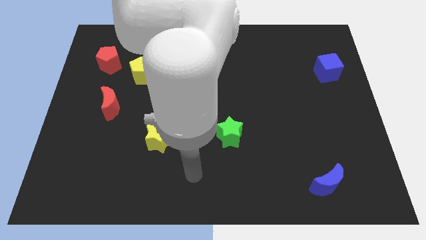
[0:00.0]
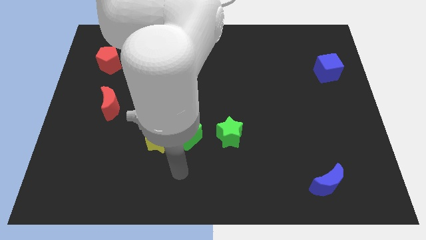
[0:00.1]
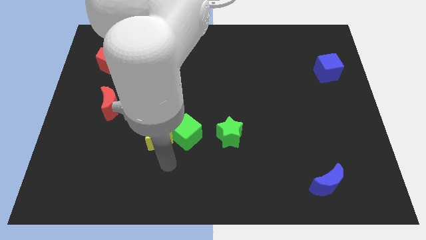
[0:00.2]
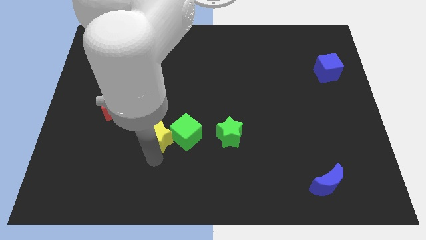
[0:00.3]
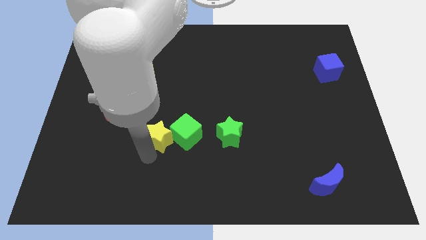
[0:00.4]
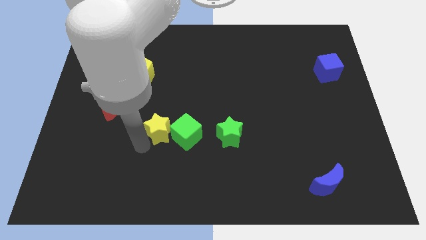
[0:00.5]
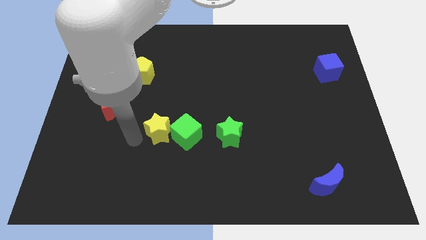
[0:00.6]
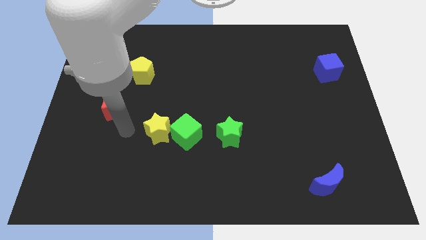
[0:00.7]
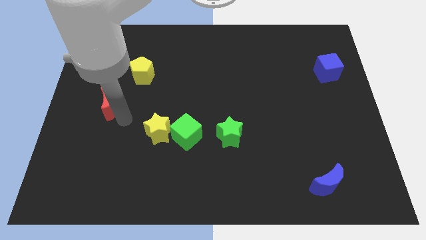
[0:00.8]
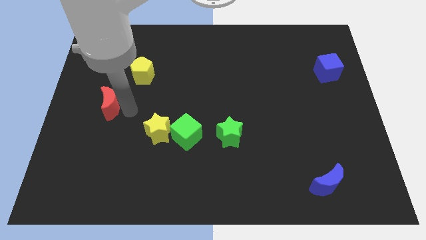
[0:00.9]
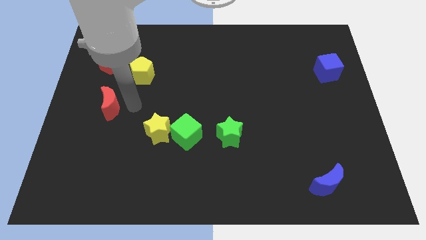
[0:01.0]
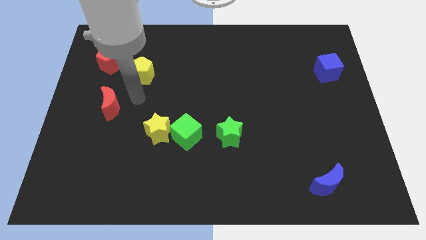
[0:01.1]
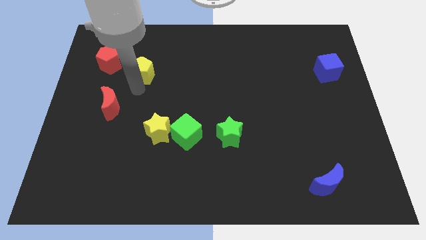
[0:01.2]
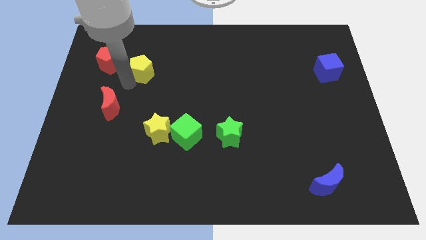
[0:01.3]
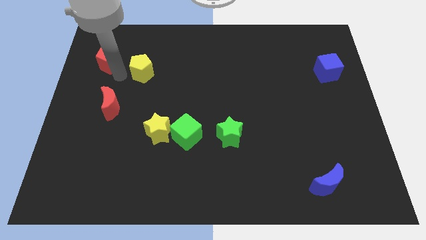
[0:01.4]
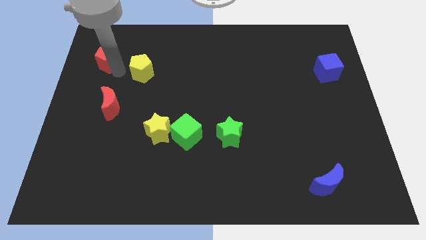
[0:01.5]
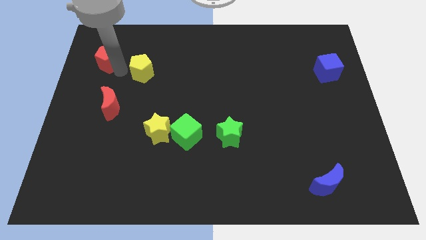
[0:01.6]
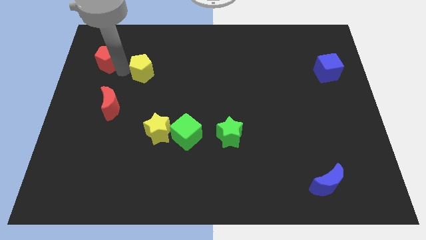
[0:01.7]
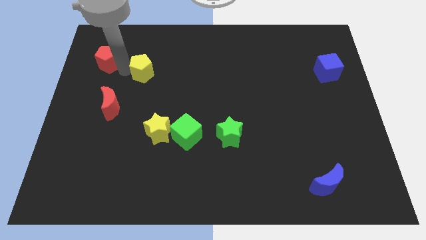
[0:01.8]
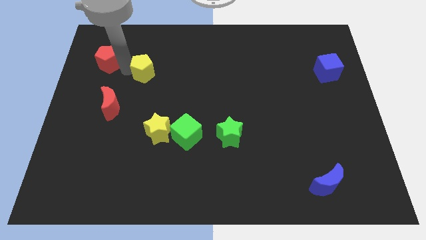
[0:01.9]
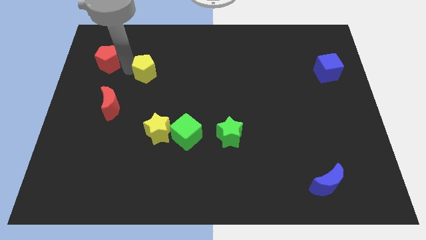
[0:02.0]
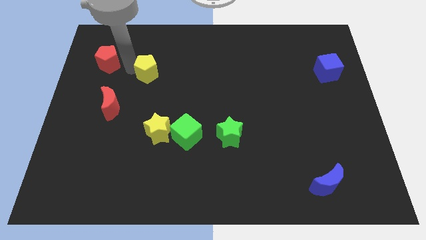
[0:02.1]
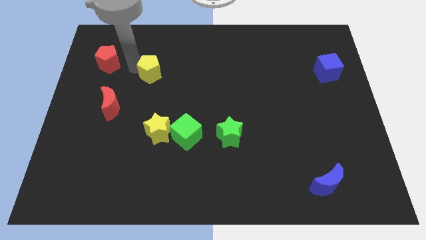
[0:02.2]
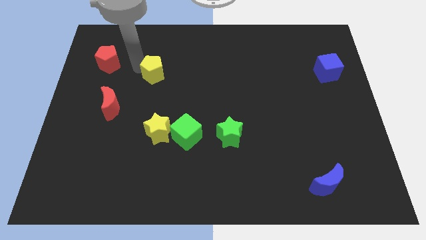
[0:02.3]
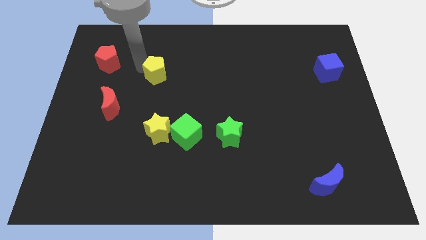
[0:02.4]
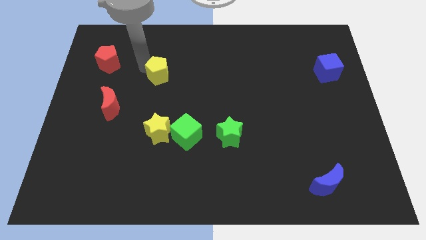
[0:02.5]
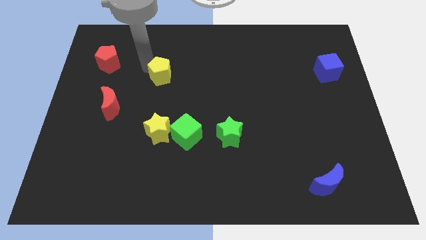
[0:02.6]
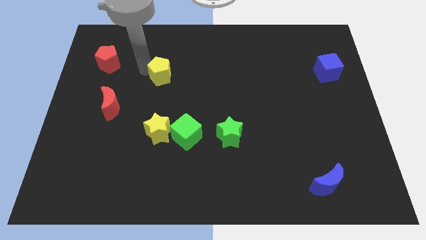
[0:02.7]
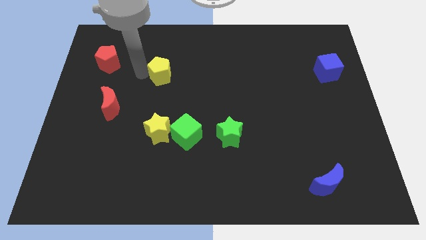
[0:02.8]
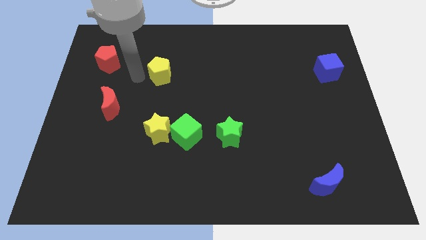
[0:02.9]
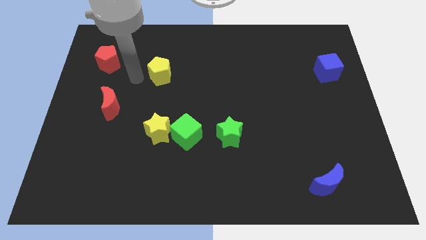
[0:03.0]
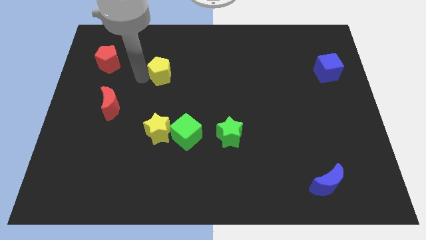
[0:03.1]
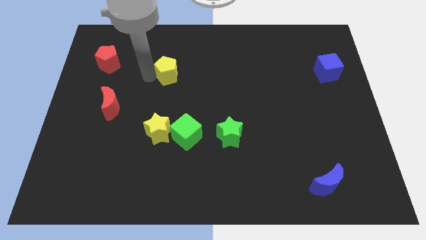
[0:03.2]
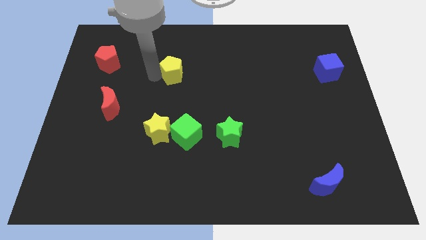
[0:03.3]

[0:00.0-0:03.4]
slightly move the yellow pentagon right

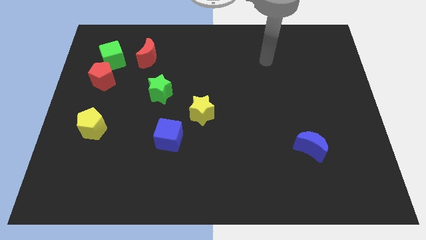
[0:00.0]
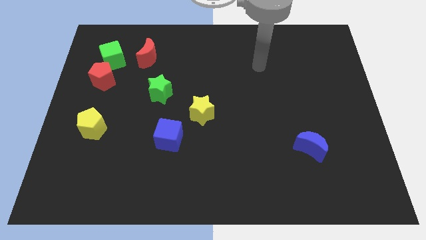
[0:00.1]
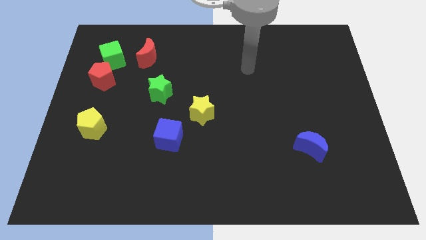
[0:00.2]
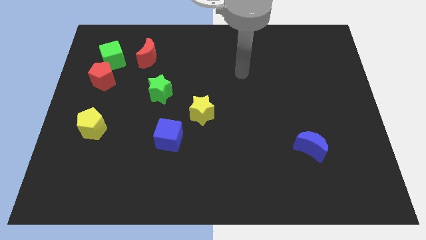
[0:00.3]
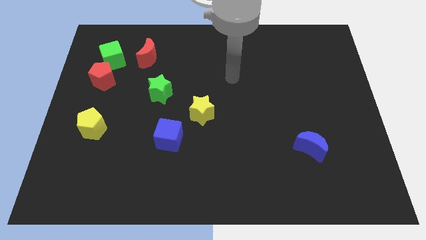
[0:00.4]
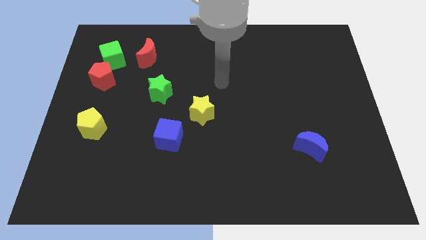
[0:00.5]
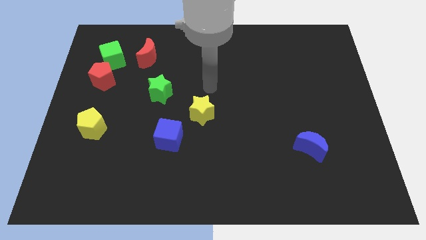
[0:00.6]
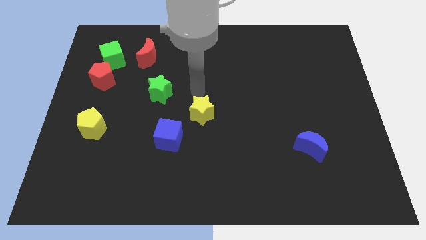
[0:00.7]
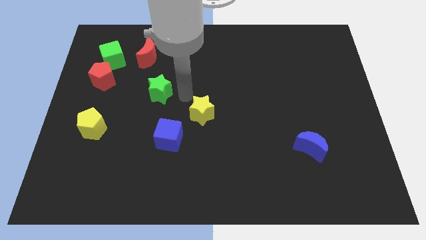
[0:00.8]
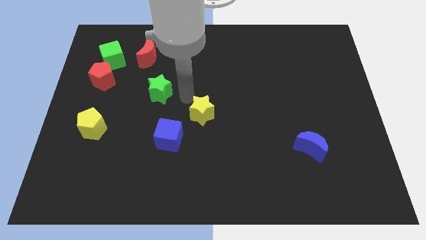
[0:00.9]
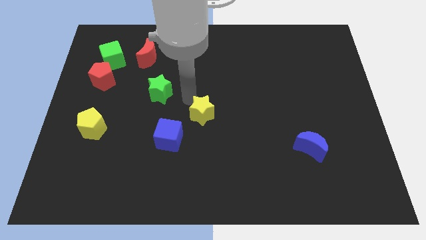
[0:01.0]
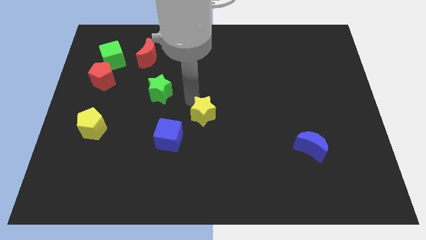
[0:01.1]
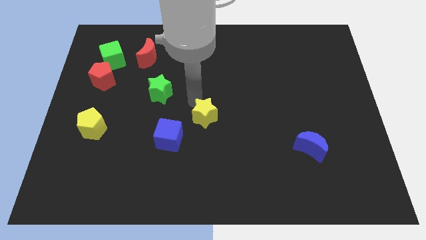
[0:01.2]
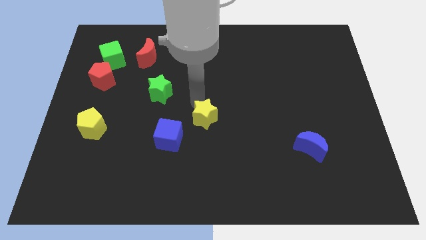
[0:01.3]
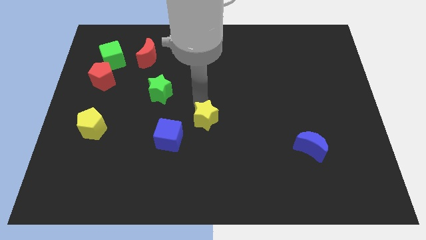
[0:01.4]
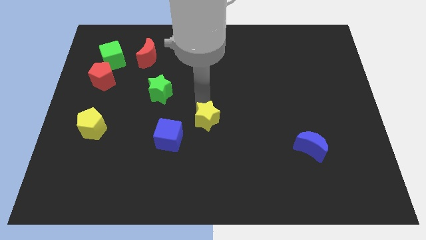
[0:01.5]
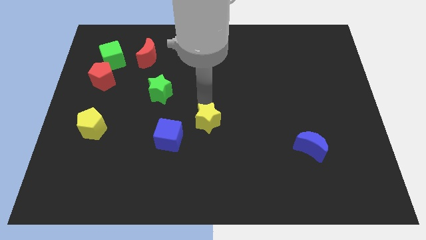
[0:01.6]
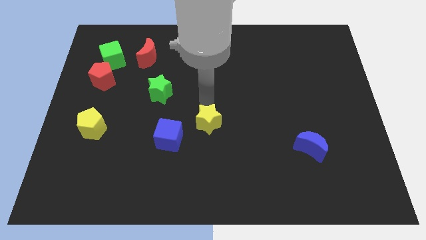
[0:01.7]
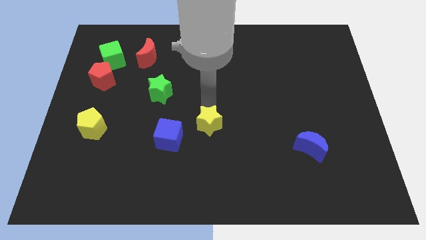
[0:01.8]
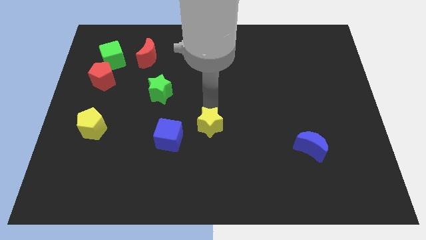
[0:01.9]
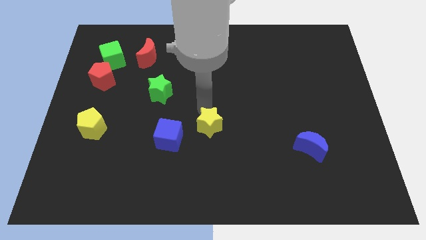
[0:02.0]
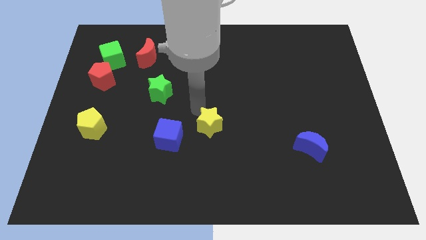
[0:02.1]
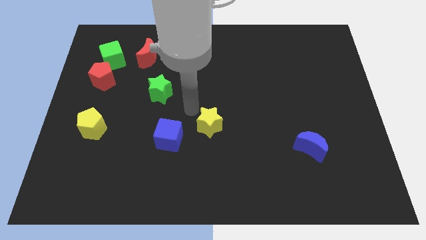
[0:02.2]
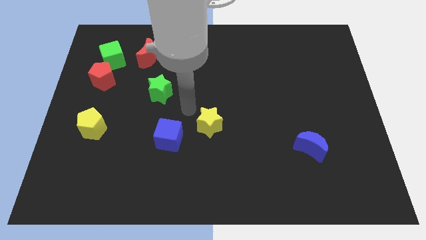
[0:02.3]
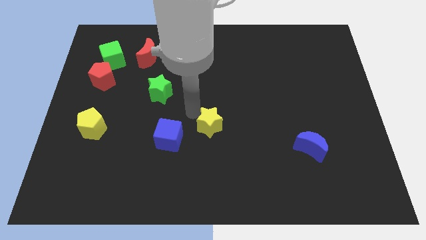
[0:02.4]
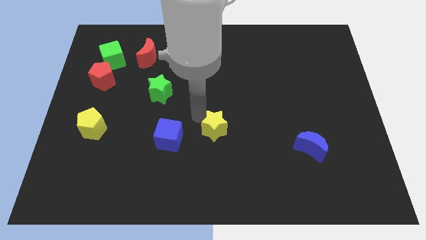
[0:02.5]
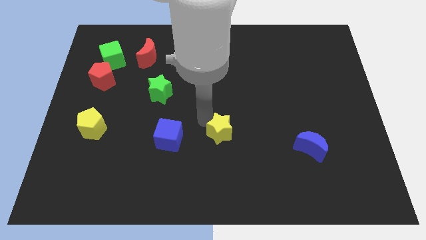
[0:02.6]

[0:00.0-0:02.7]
slide the yellow star downwards and right diagonally slightly

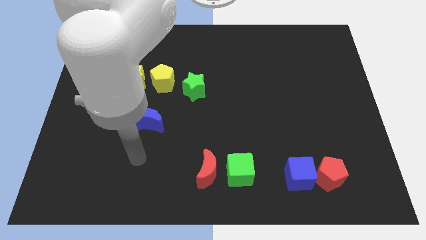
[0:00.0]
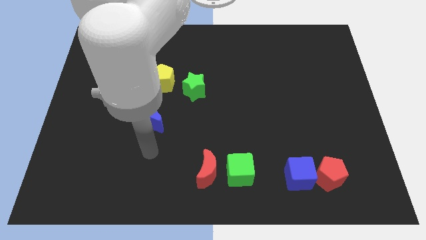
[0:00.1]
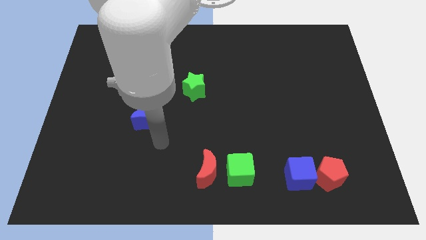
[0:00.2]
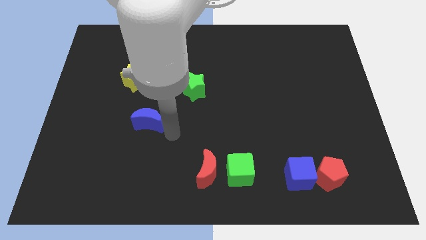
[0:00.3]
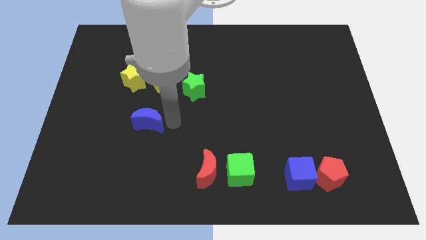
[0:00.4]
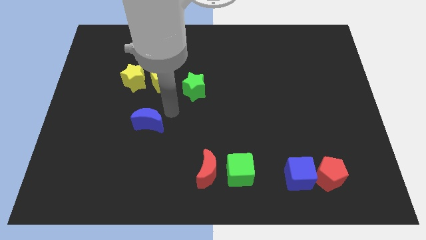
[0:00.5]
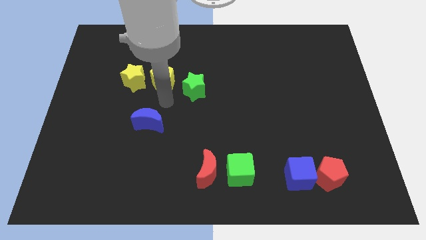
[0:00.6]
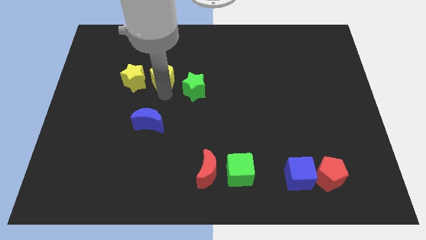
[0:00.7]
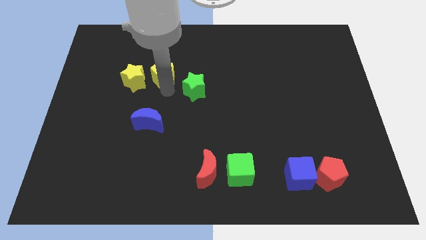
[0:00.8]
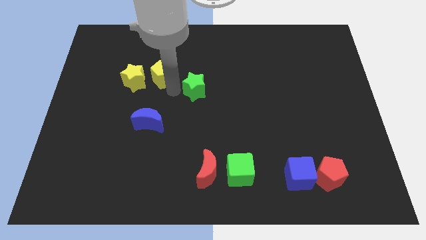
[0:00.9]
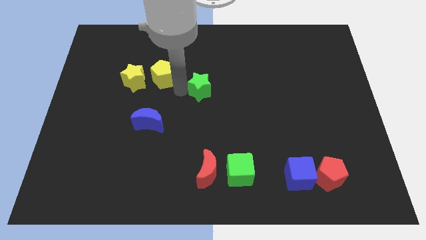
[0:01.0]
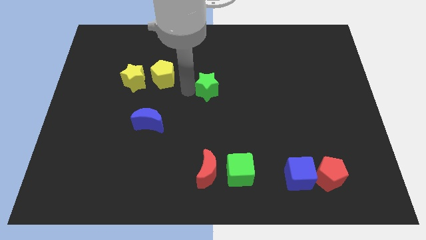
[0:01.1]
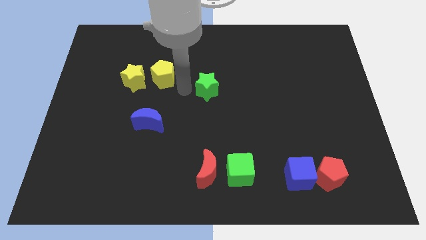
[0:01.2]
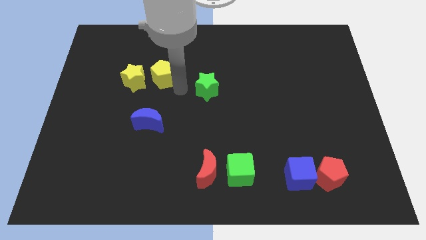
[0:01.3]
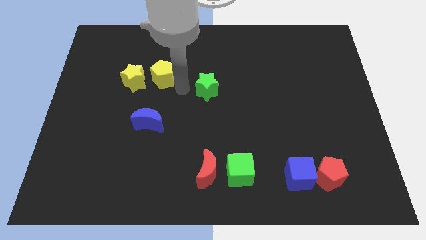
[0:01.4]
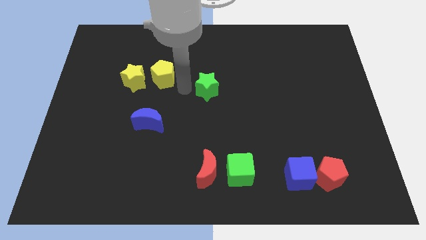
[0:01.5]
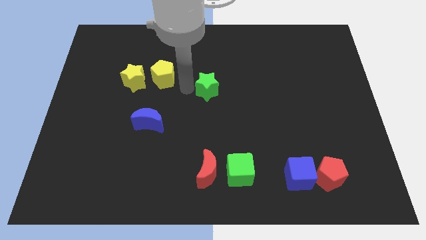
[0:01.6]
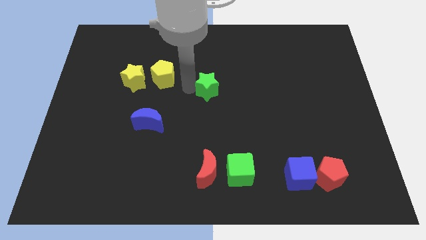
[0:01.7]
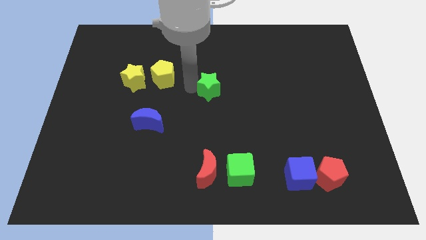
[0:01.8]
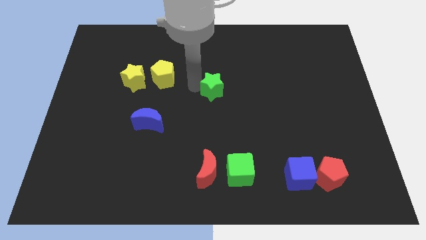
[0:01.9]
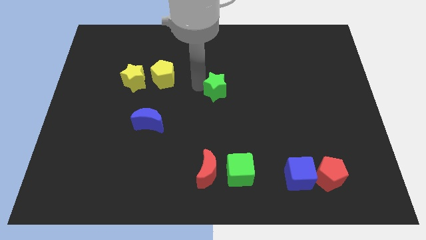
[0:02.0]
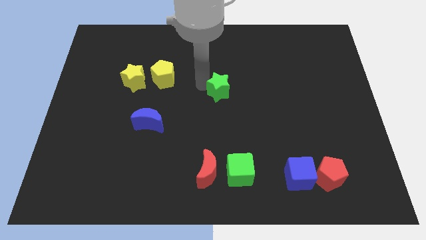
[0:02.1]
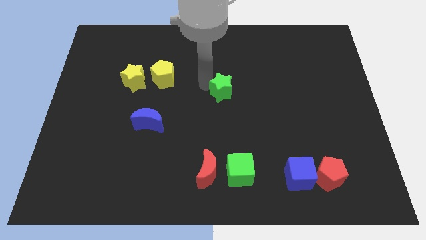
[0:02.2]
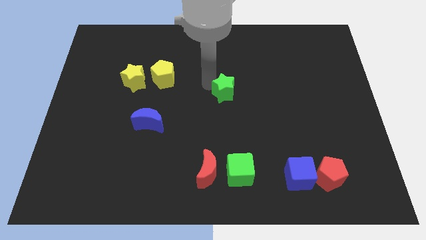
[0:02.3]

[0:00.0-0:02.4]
move the green star right slightly
